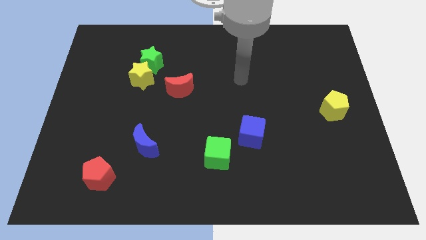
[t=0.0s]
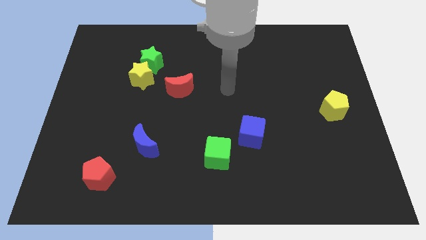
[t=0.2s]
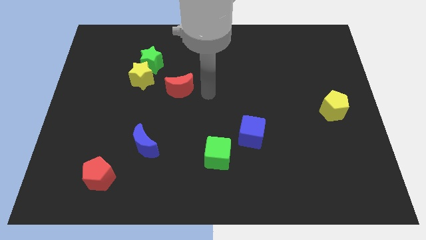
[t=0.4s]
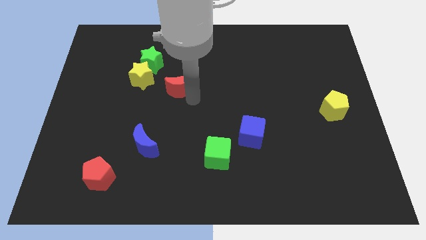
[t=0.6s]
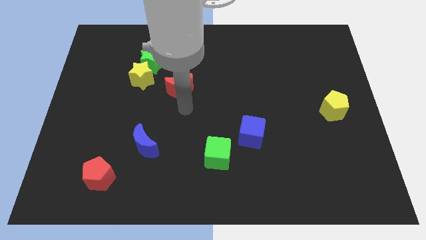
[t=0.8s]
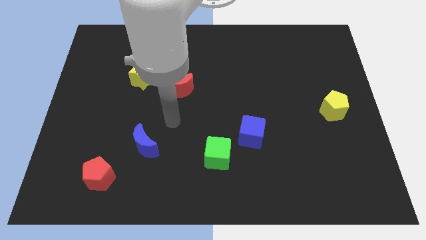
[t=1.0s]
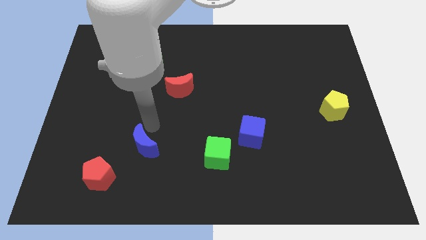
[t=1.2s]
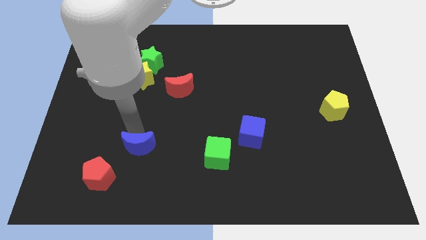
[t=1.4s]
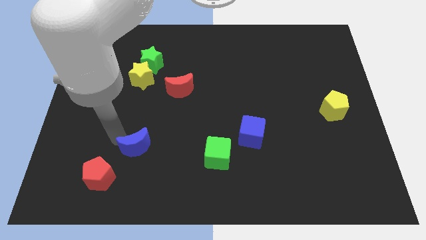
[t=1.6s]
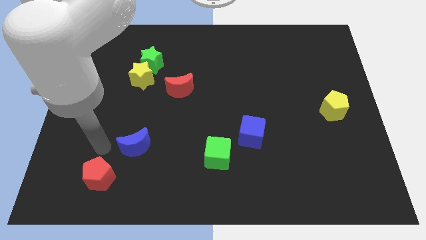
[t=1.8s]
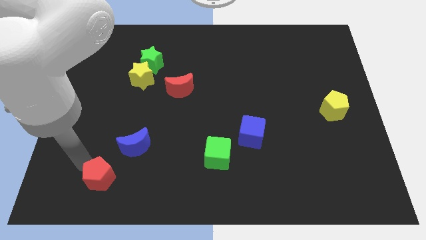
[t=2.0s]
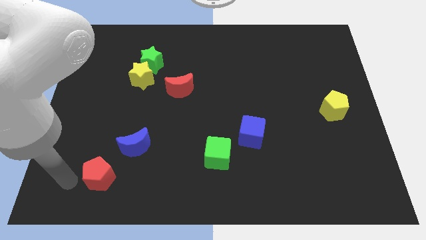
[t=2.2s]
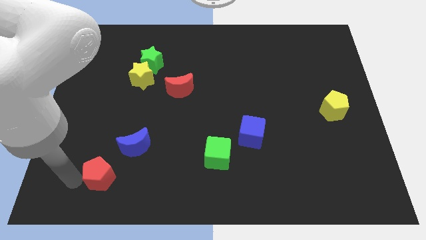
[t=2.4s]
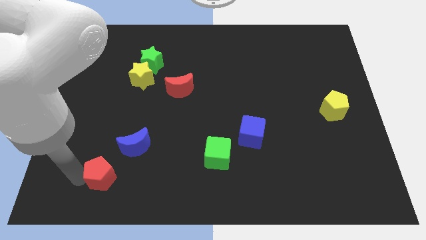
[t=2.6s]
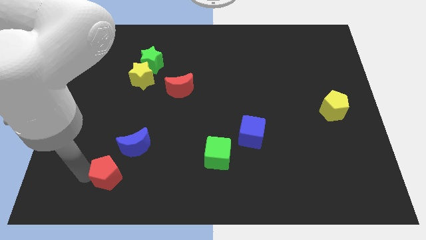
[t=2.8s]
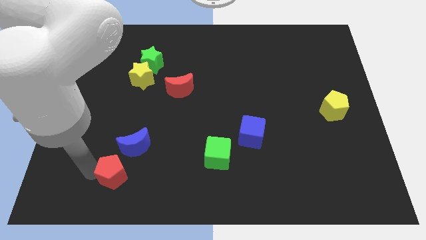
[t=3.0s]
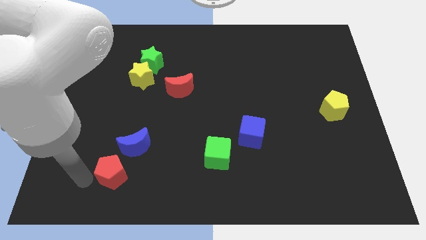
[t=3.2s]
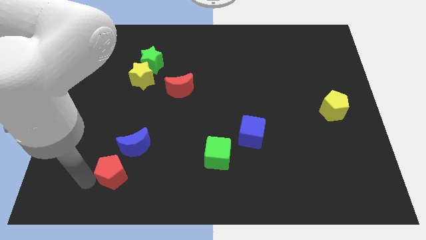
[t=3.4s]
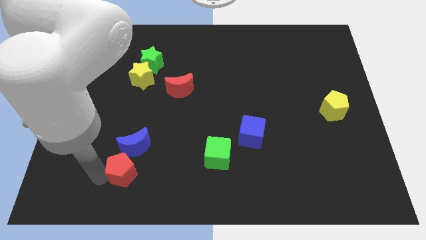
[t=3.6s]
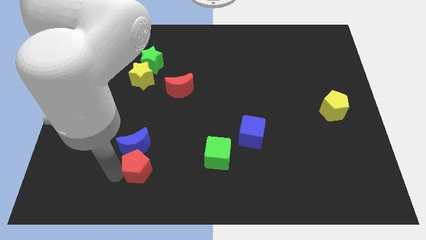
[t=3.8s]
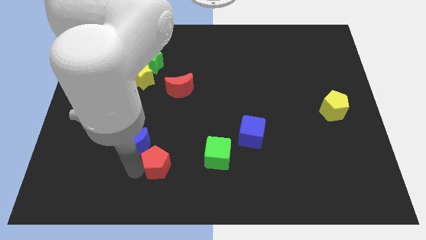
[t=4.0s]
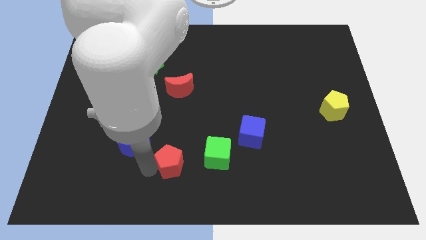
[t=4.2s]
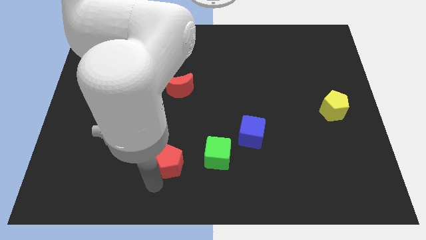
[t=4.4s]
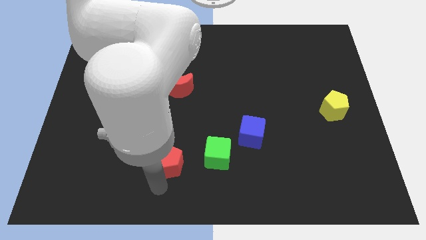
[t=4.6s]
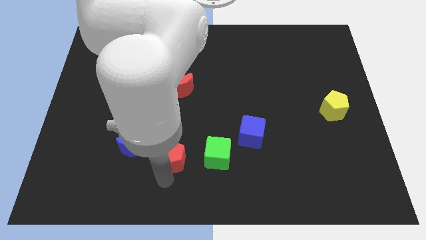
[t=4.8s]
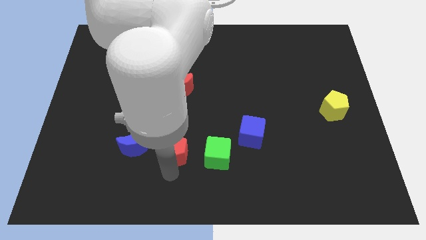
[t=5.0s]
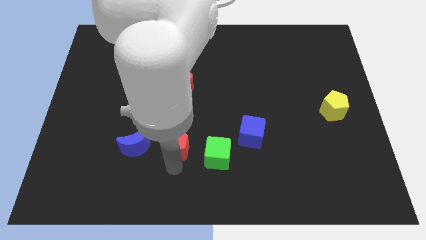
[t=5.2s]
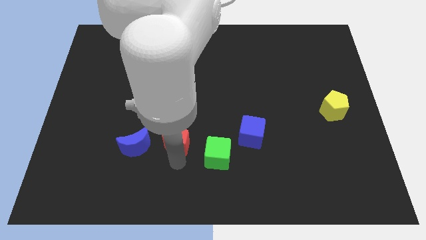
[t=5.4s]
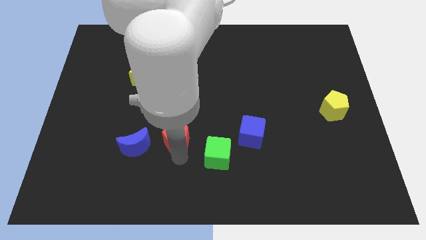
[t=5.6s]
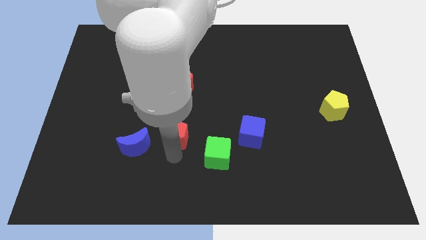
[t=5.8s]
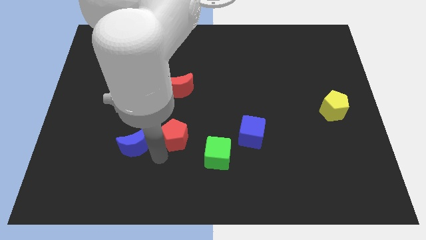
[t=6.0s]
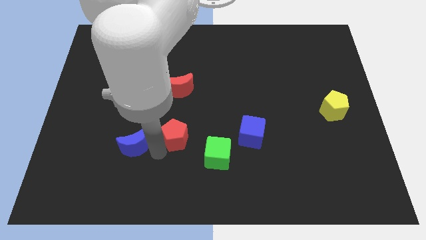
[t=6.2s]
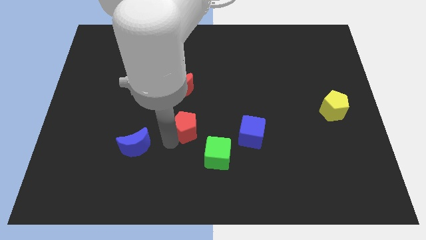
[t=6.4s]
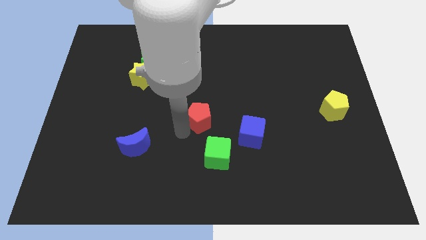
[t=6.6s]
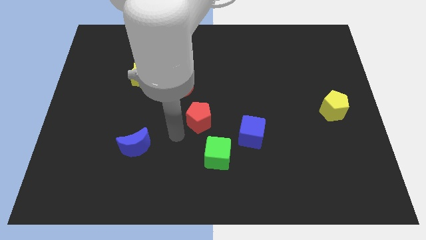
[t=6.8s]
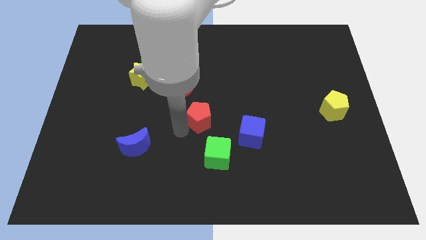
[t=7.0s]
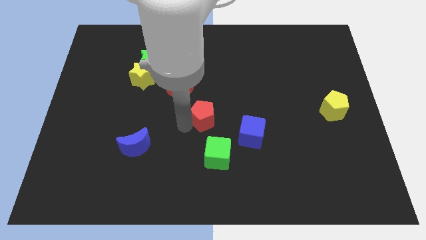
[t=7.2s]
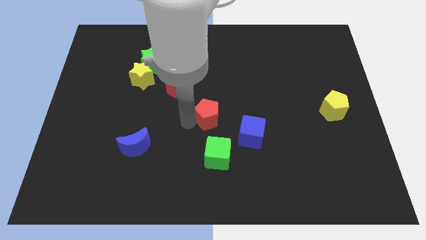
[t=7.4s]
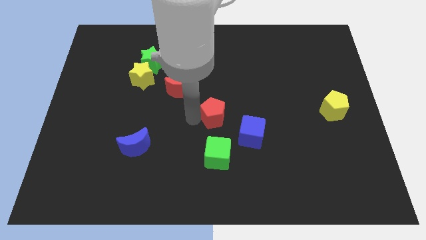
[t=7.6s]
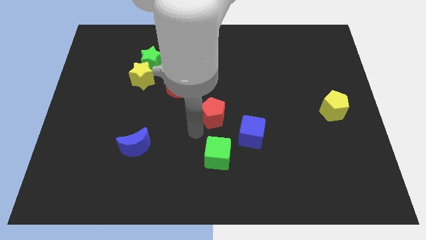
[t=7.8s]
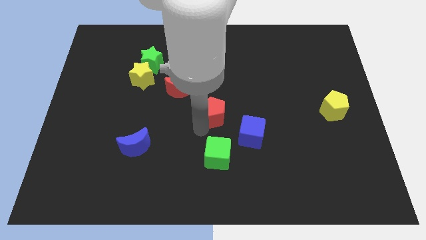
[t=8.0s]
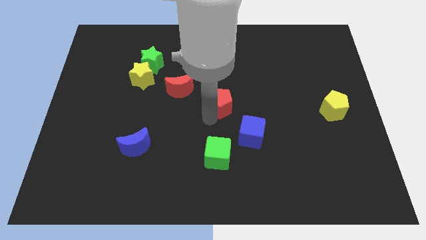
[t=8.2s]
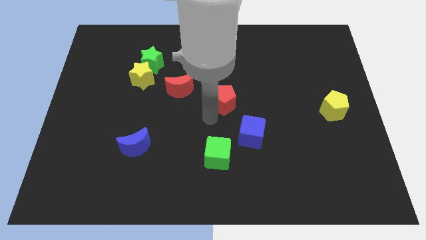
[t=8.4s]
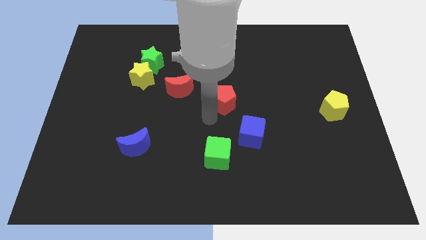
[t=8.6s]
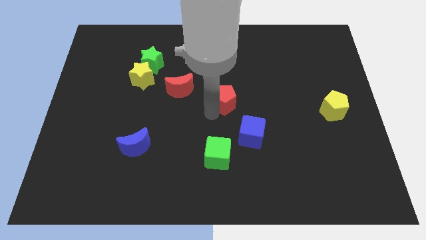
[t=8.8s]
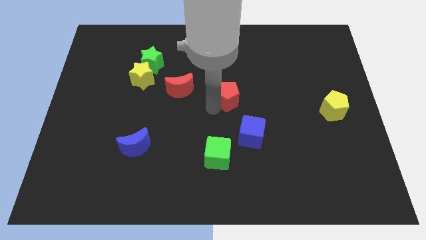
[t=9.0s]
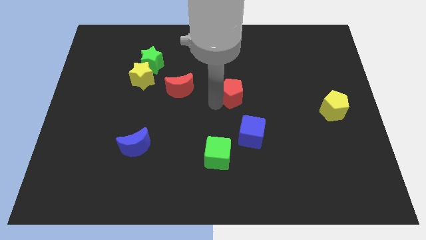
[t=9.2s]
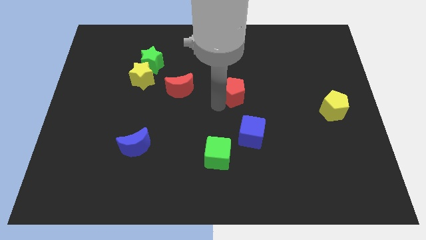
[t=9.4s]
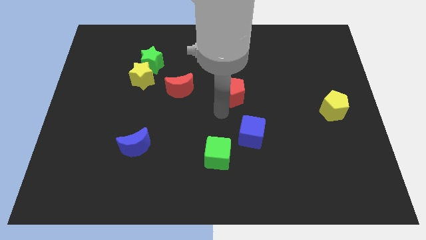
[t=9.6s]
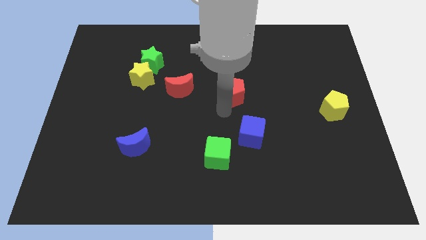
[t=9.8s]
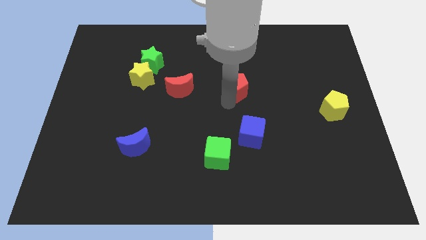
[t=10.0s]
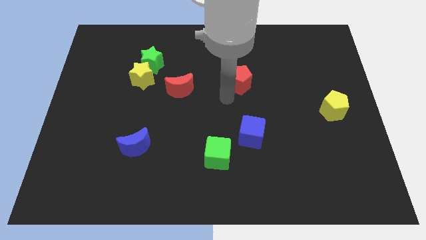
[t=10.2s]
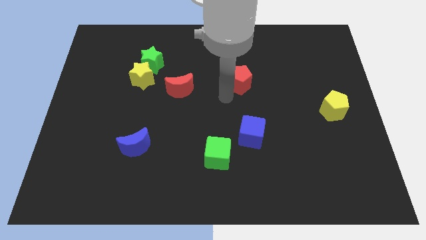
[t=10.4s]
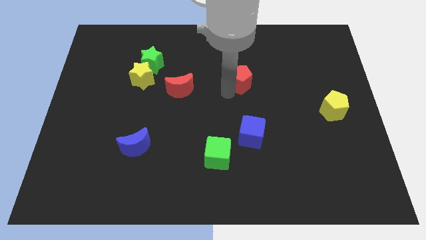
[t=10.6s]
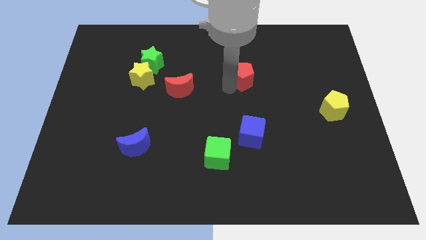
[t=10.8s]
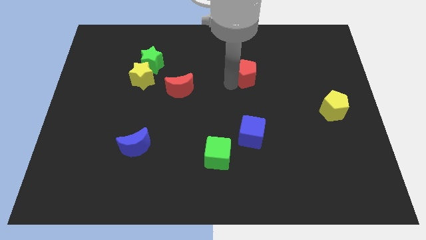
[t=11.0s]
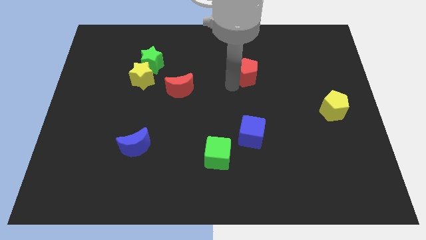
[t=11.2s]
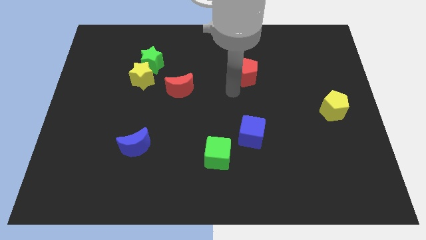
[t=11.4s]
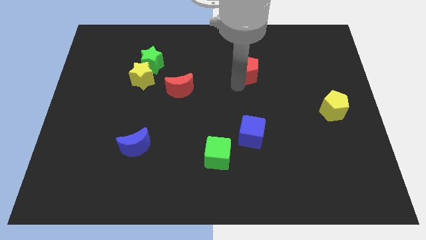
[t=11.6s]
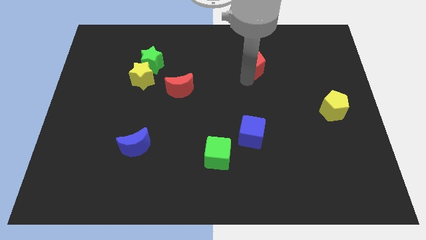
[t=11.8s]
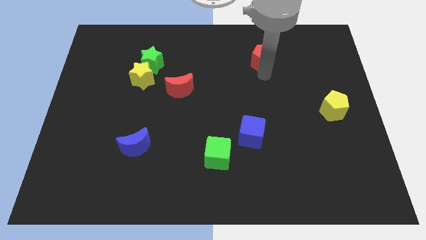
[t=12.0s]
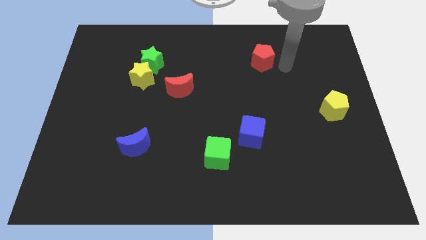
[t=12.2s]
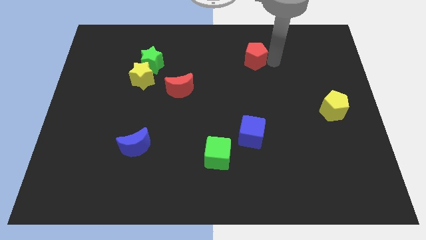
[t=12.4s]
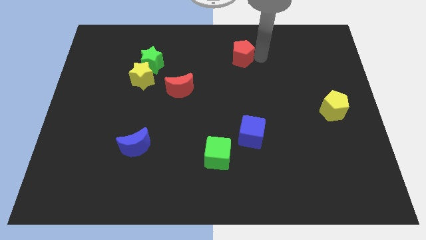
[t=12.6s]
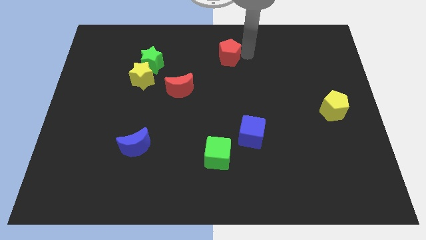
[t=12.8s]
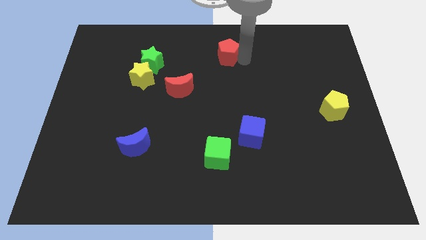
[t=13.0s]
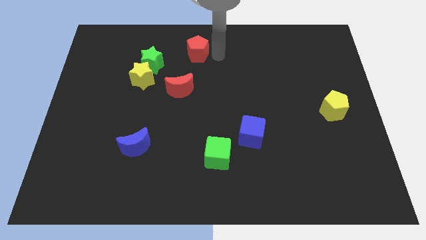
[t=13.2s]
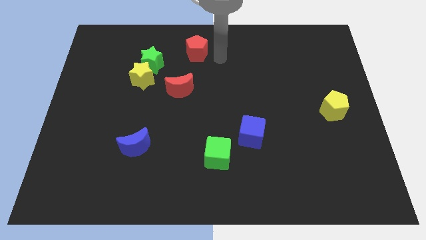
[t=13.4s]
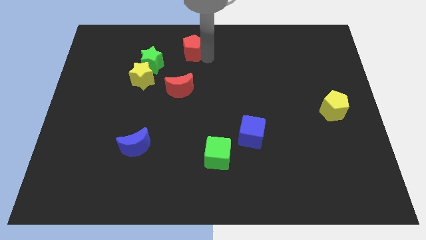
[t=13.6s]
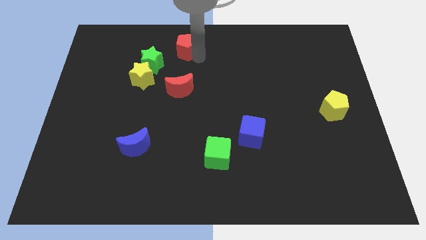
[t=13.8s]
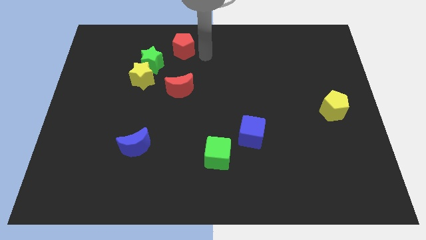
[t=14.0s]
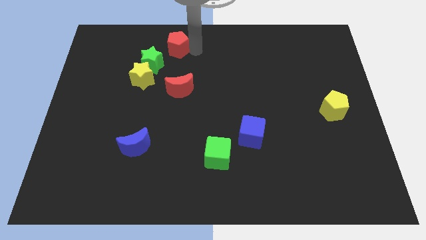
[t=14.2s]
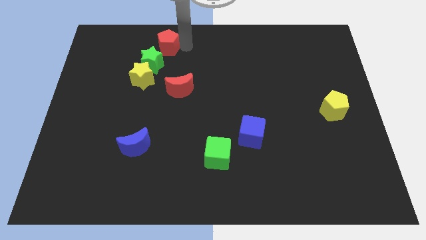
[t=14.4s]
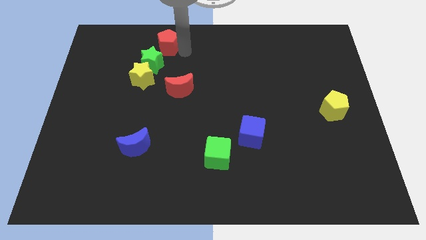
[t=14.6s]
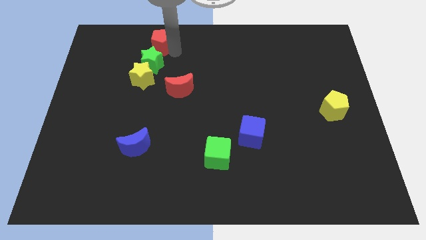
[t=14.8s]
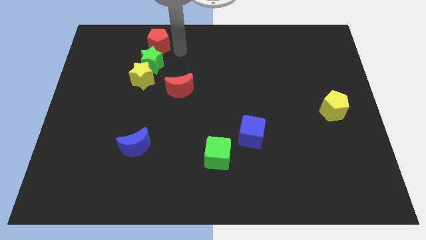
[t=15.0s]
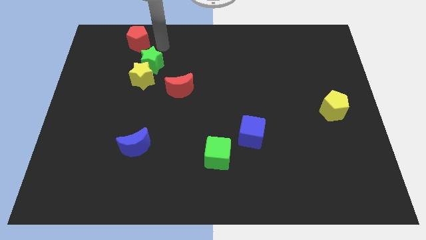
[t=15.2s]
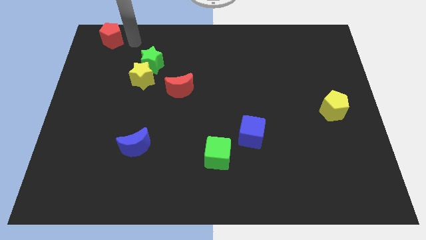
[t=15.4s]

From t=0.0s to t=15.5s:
put the red pentagon to the top left corner
